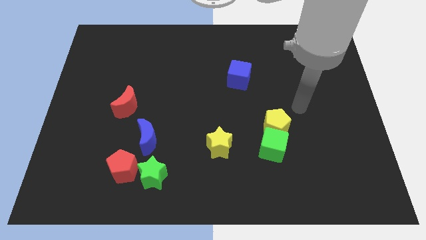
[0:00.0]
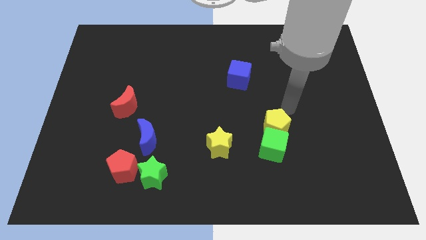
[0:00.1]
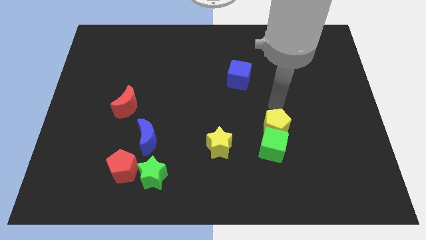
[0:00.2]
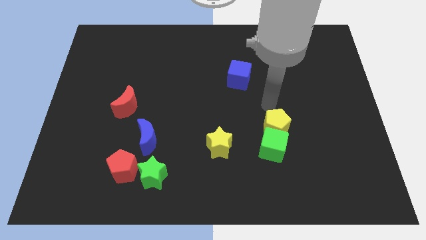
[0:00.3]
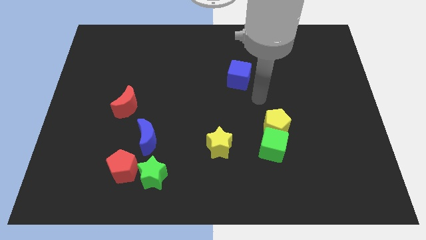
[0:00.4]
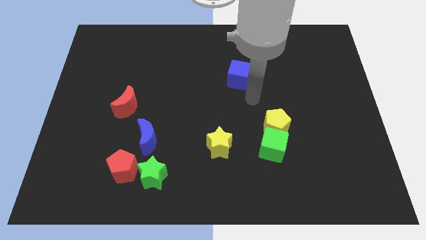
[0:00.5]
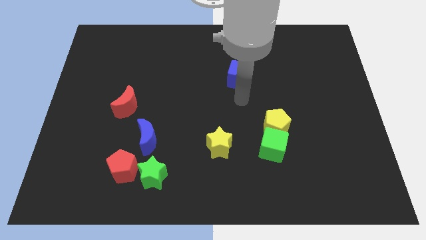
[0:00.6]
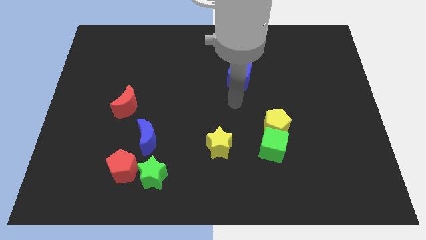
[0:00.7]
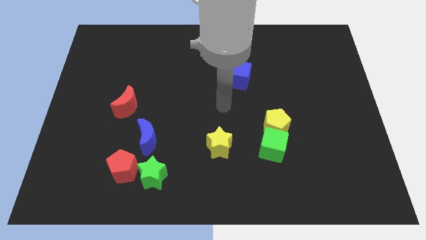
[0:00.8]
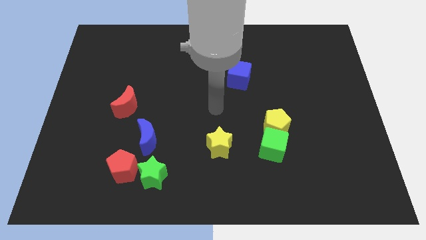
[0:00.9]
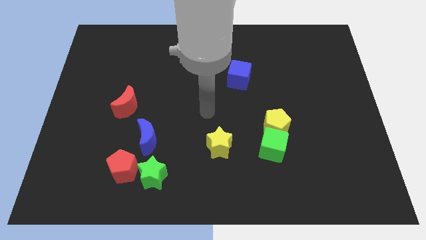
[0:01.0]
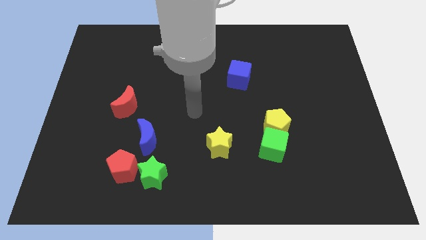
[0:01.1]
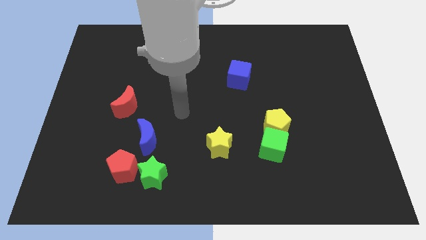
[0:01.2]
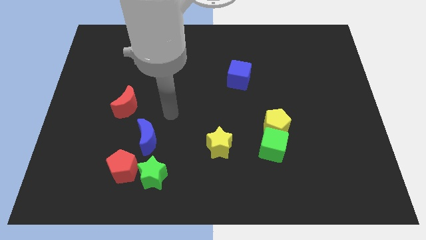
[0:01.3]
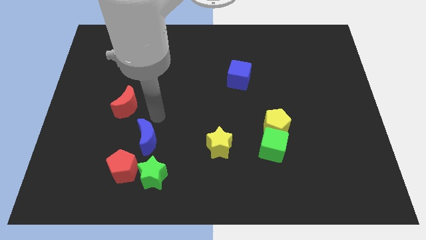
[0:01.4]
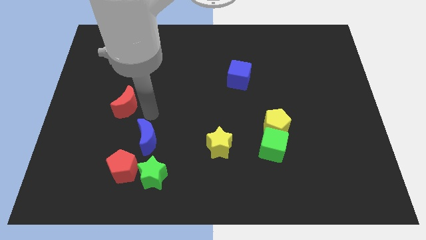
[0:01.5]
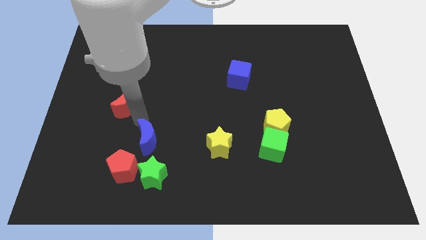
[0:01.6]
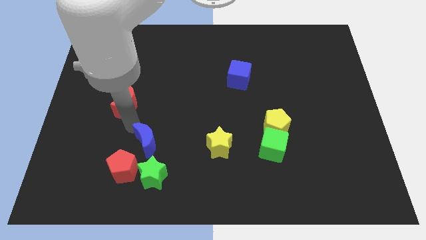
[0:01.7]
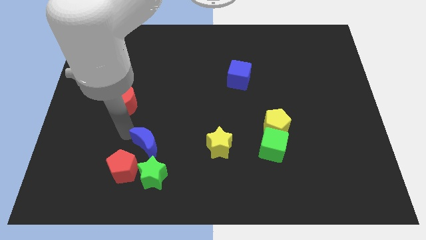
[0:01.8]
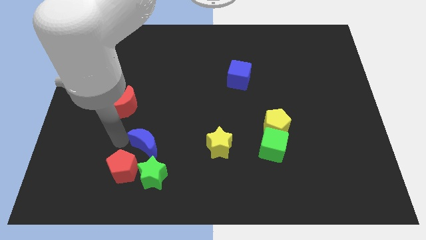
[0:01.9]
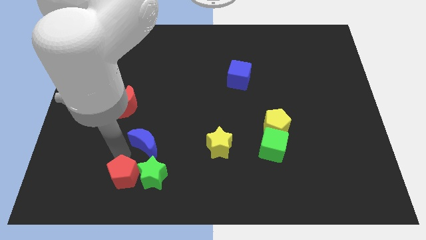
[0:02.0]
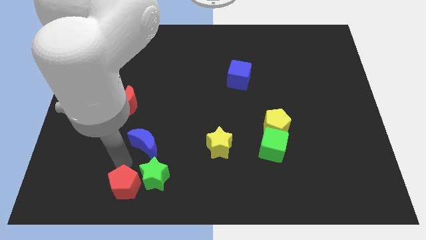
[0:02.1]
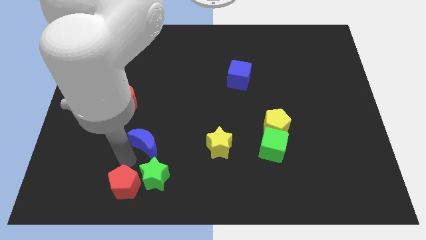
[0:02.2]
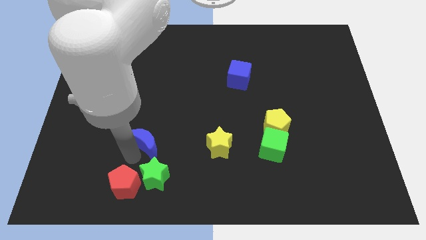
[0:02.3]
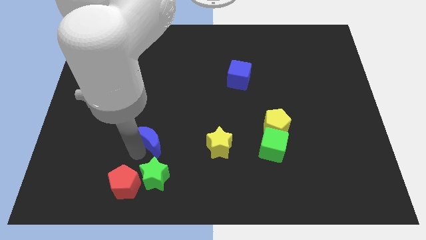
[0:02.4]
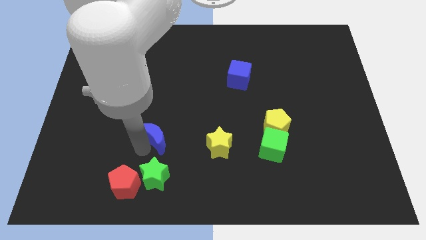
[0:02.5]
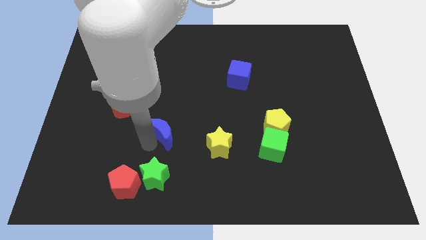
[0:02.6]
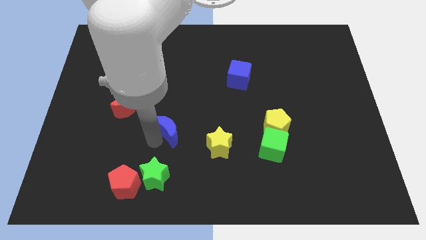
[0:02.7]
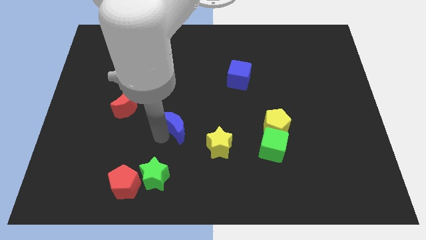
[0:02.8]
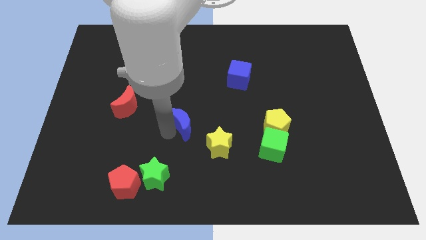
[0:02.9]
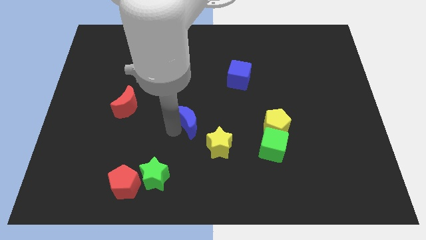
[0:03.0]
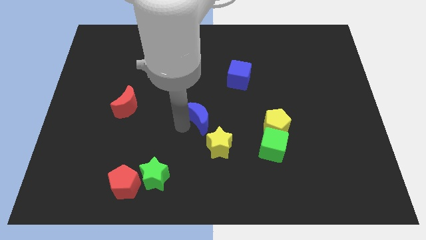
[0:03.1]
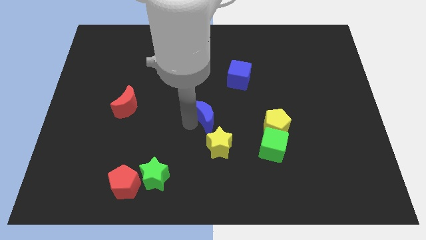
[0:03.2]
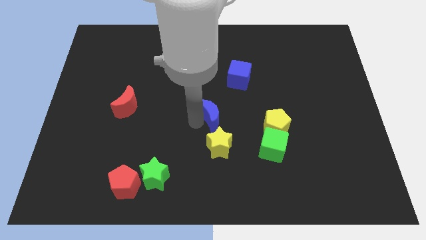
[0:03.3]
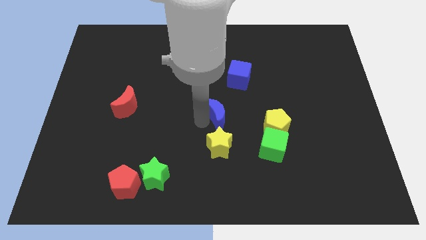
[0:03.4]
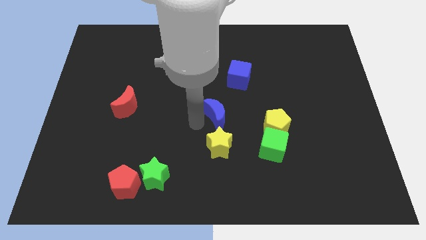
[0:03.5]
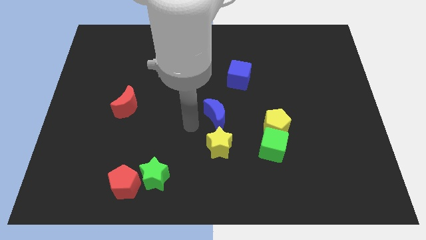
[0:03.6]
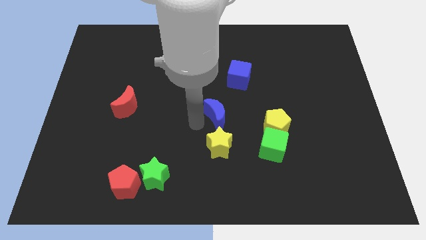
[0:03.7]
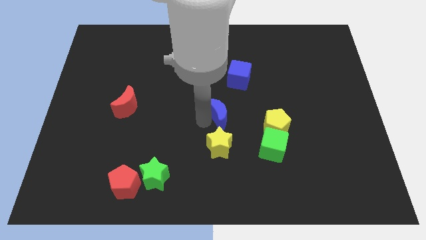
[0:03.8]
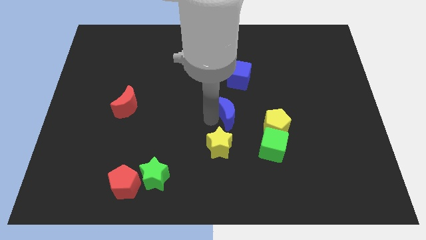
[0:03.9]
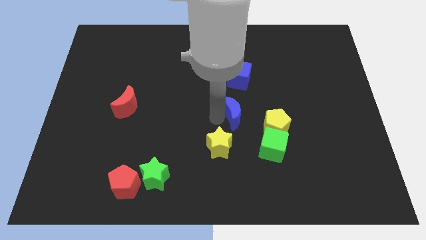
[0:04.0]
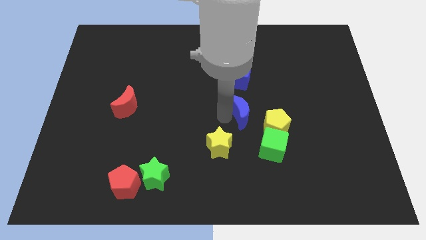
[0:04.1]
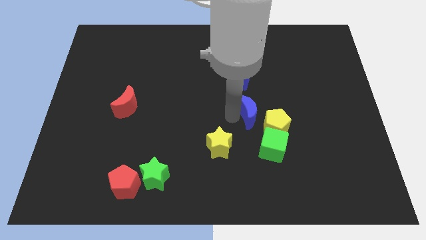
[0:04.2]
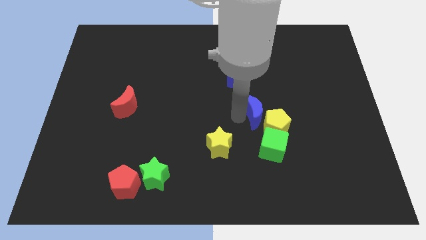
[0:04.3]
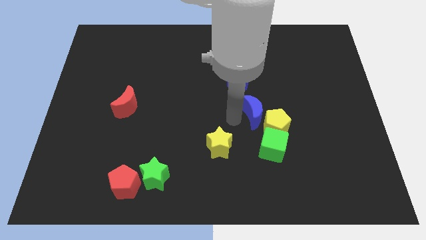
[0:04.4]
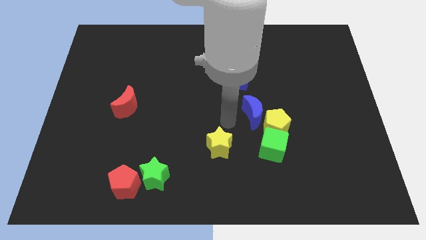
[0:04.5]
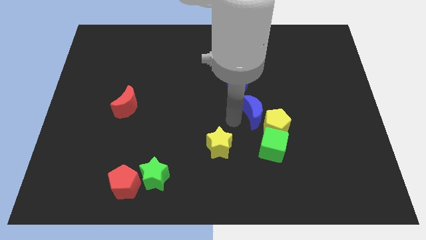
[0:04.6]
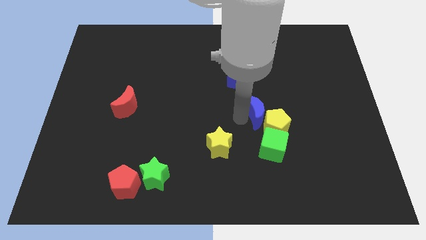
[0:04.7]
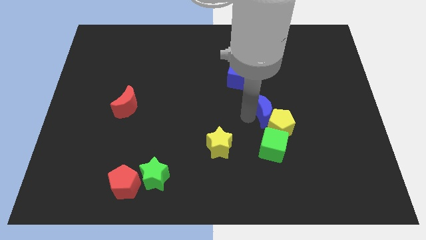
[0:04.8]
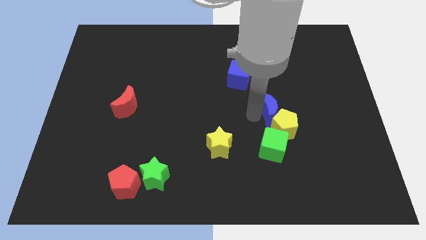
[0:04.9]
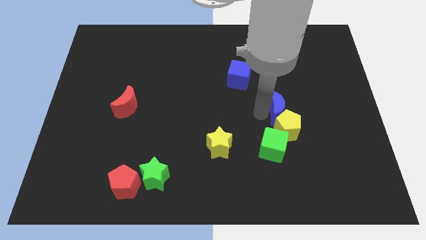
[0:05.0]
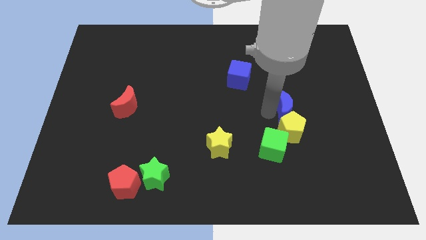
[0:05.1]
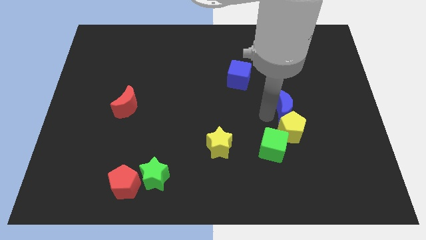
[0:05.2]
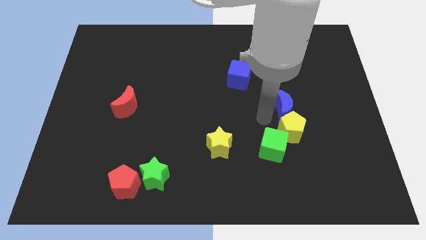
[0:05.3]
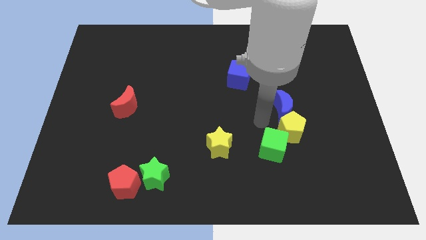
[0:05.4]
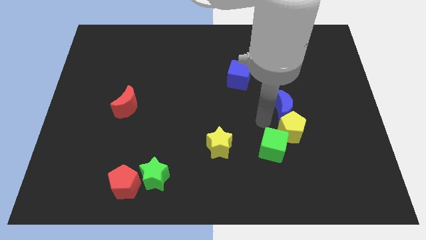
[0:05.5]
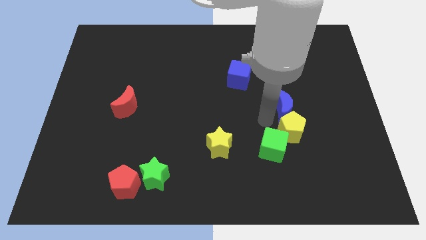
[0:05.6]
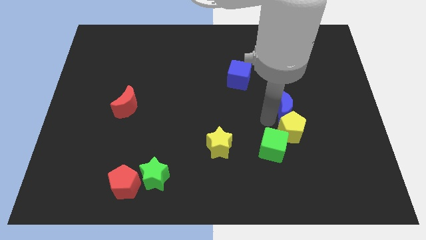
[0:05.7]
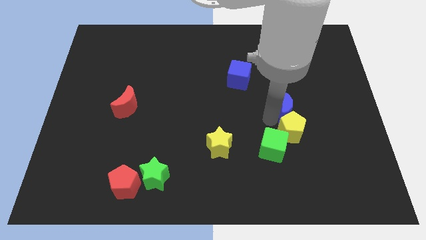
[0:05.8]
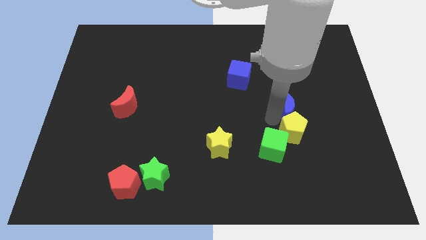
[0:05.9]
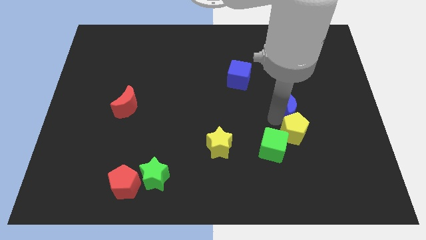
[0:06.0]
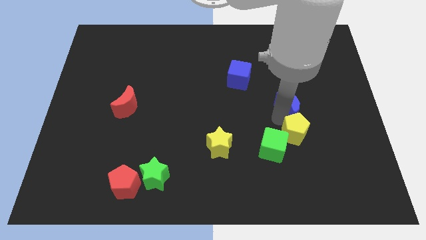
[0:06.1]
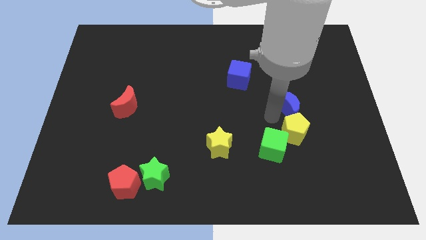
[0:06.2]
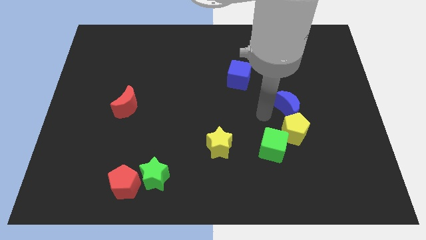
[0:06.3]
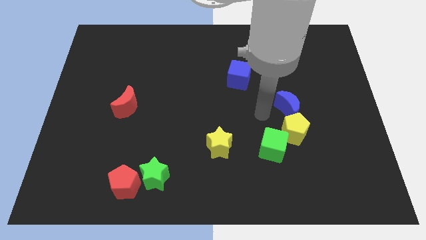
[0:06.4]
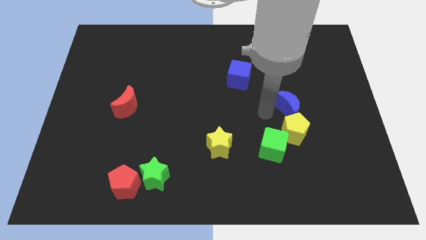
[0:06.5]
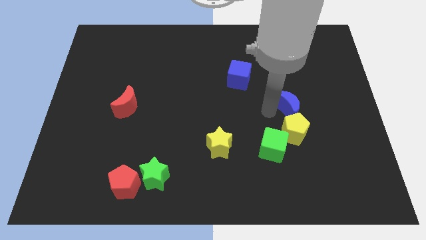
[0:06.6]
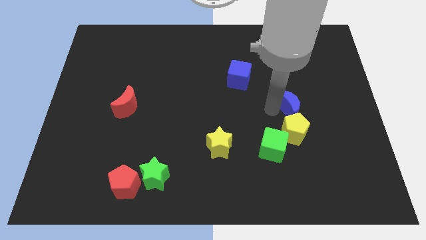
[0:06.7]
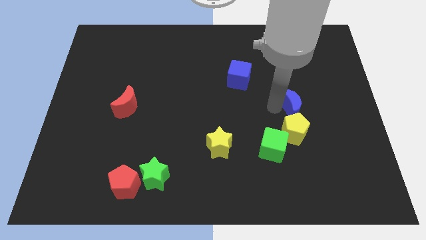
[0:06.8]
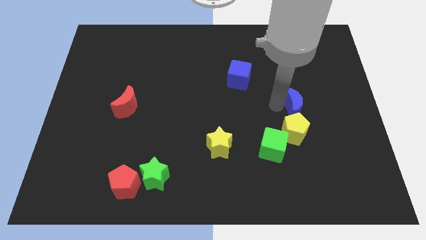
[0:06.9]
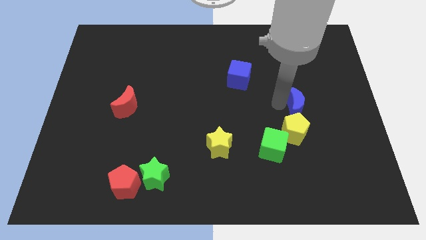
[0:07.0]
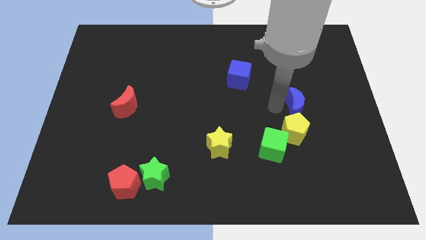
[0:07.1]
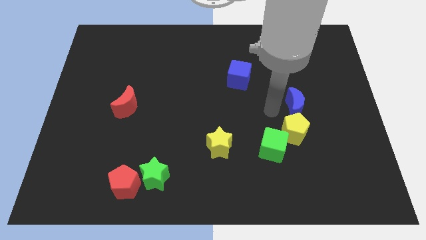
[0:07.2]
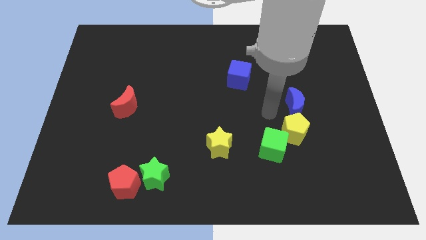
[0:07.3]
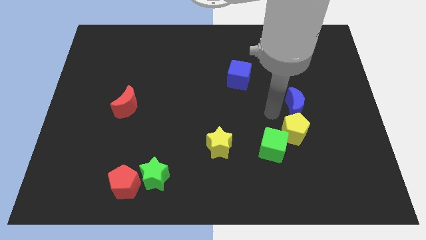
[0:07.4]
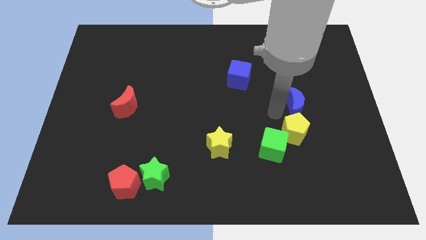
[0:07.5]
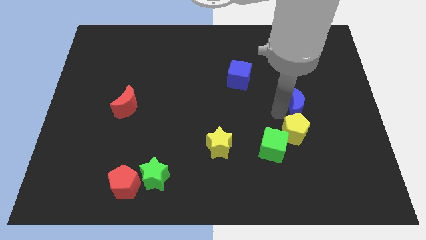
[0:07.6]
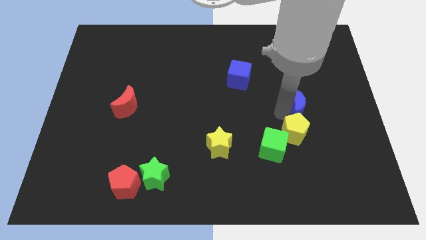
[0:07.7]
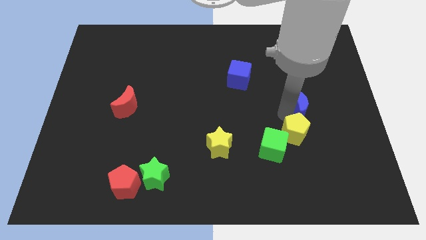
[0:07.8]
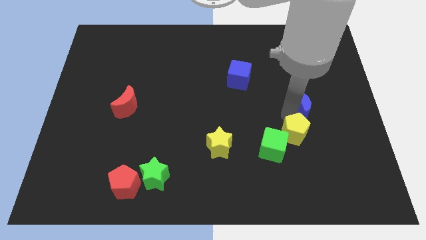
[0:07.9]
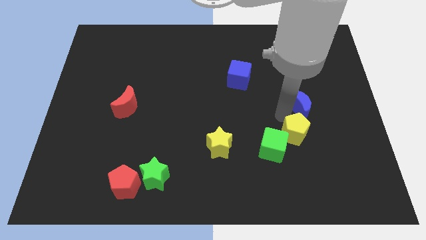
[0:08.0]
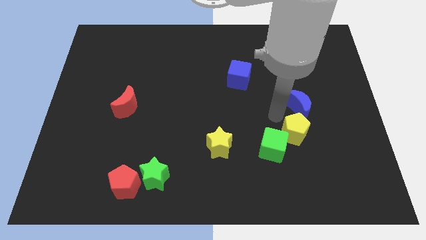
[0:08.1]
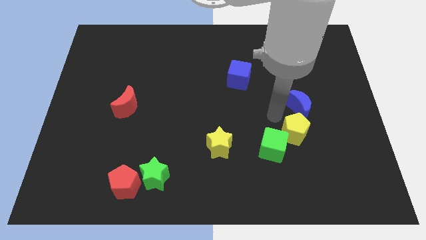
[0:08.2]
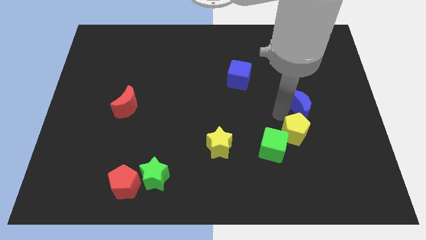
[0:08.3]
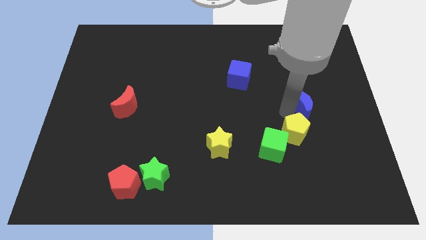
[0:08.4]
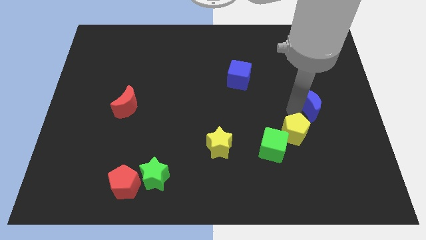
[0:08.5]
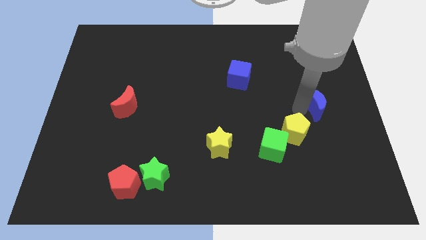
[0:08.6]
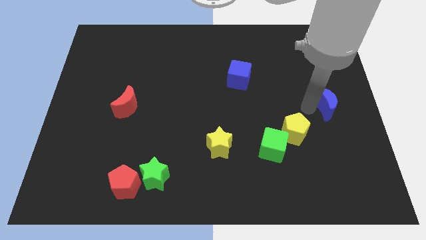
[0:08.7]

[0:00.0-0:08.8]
slide the blue moon to the right side
